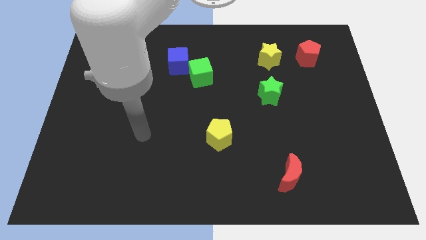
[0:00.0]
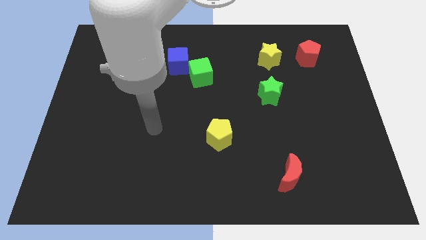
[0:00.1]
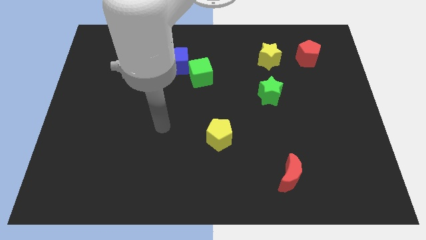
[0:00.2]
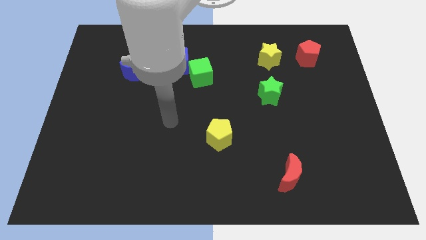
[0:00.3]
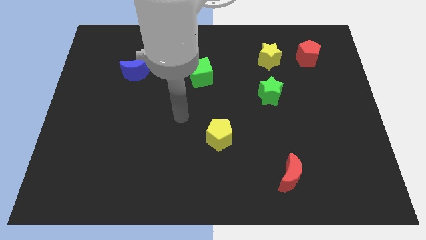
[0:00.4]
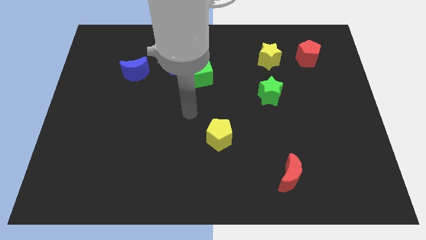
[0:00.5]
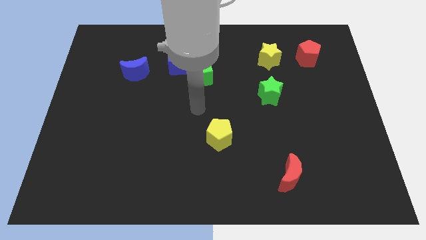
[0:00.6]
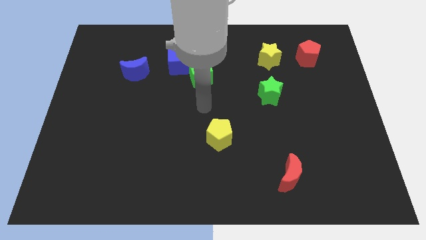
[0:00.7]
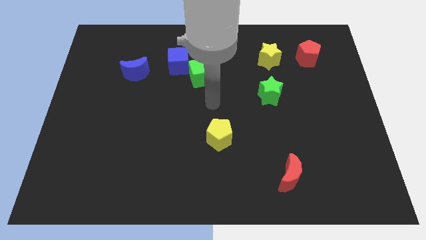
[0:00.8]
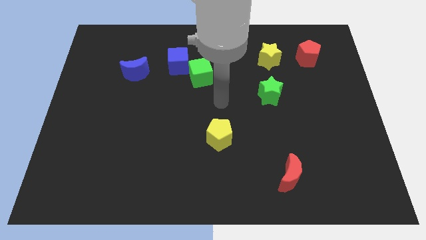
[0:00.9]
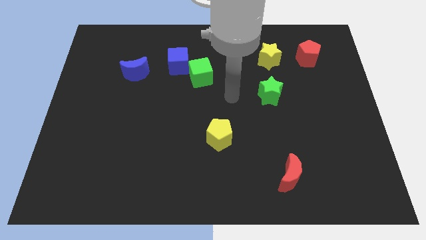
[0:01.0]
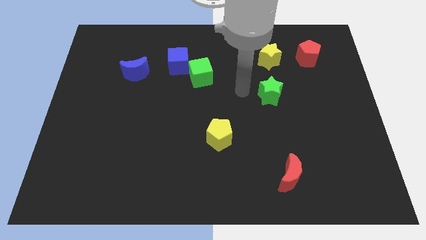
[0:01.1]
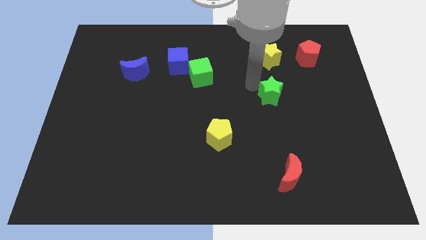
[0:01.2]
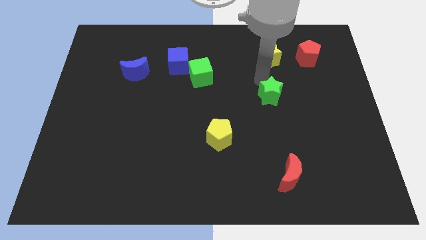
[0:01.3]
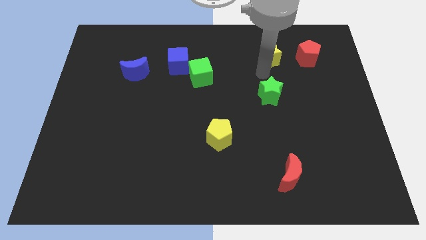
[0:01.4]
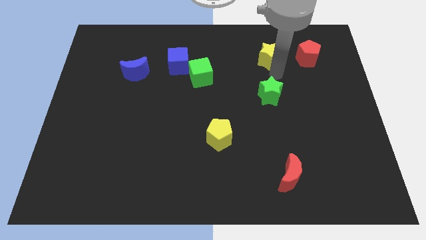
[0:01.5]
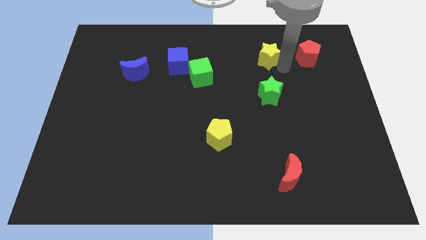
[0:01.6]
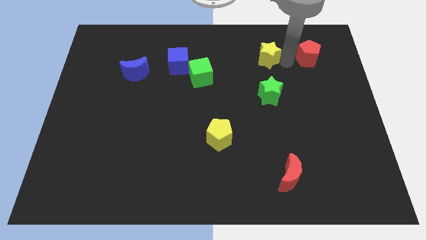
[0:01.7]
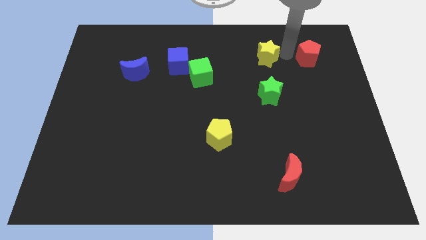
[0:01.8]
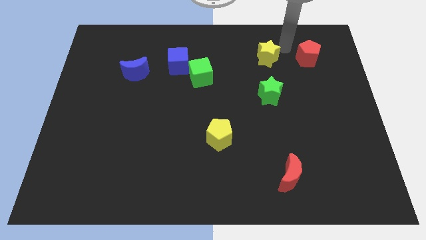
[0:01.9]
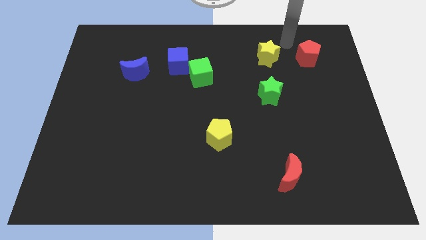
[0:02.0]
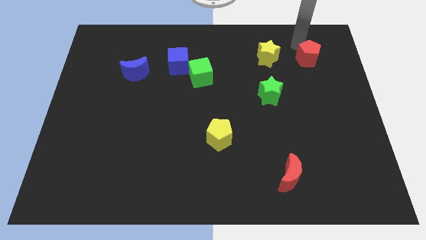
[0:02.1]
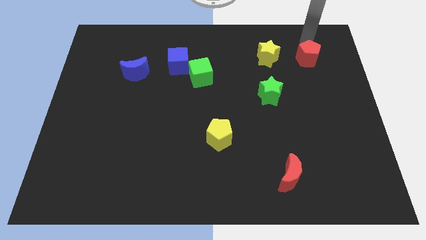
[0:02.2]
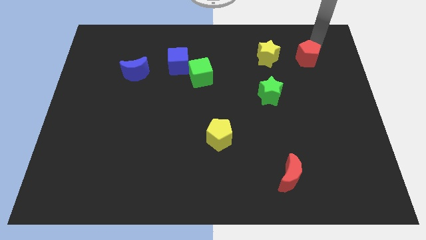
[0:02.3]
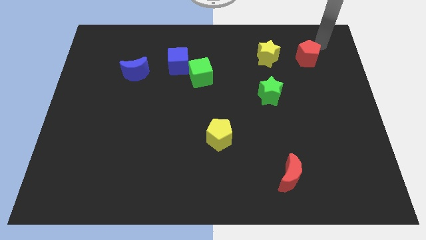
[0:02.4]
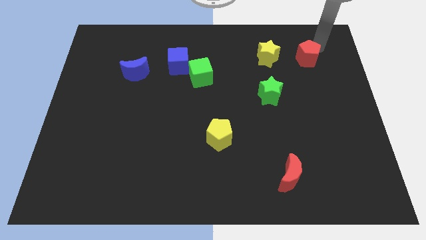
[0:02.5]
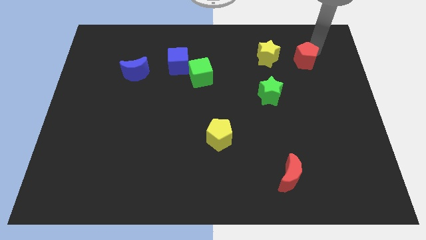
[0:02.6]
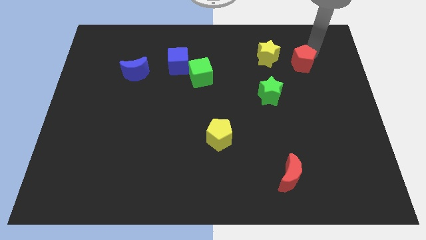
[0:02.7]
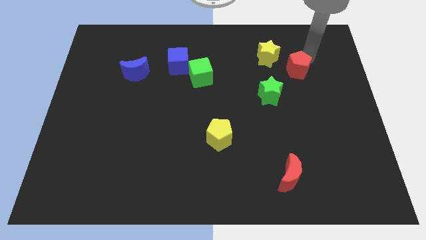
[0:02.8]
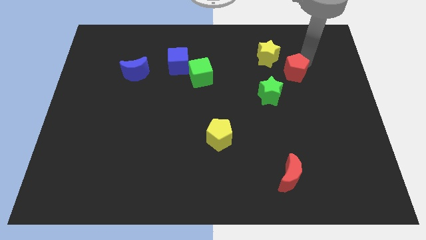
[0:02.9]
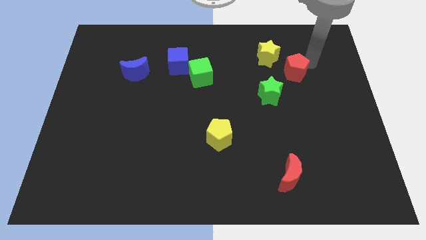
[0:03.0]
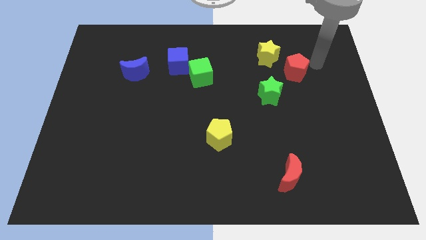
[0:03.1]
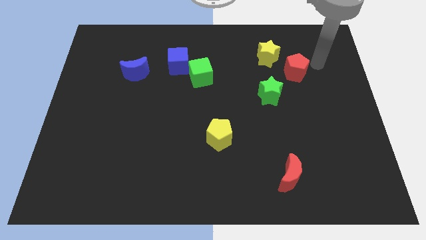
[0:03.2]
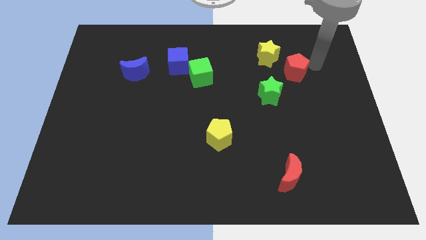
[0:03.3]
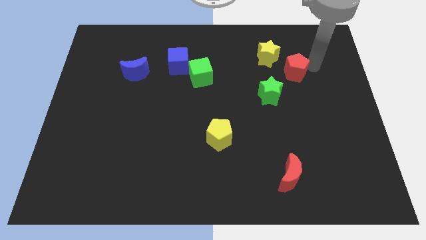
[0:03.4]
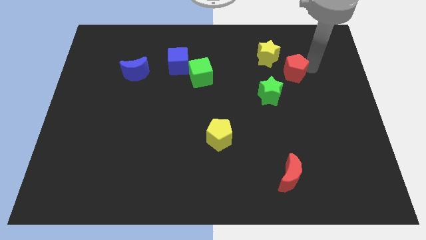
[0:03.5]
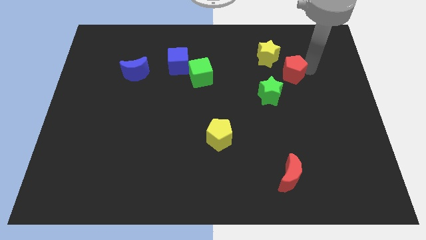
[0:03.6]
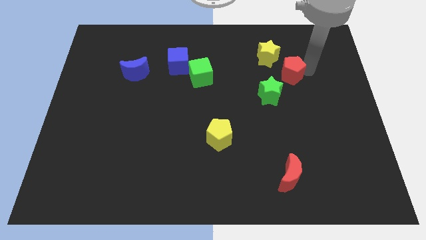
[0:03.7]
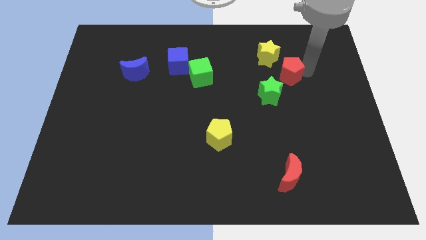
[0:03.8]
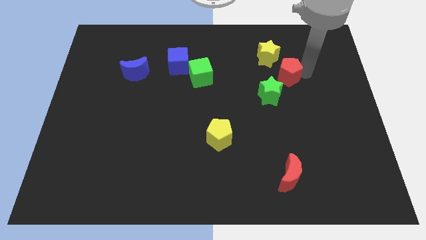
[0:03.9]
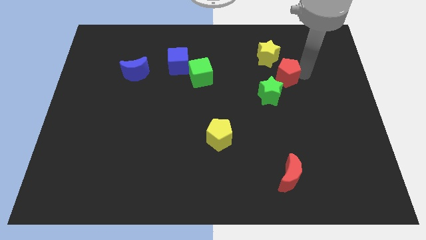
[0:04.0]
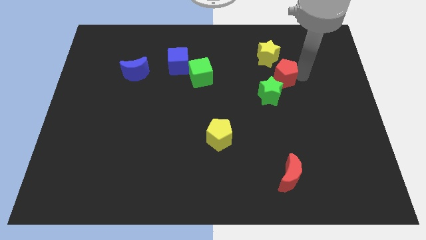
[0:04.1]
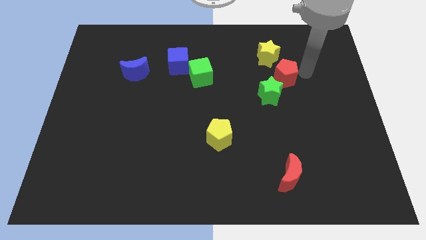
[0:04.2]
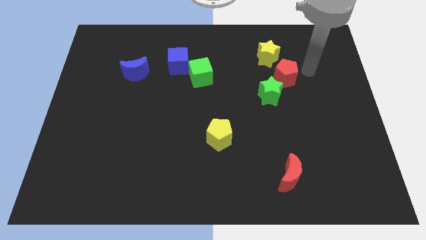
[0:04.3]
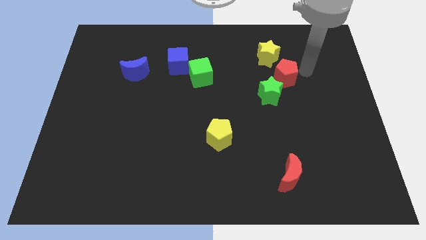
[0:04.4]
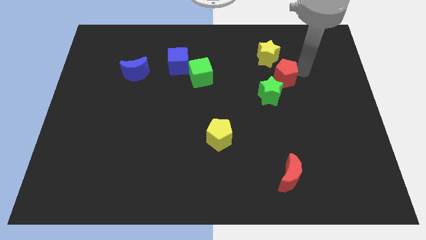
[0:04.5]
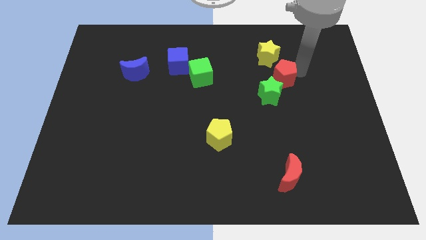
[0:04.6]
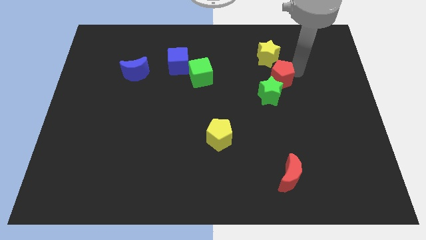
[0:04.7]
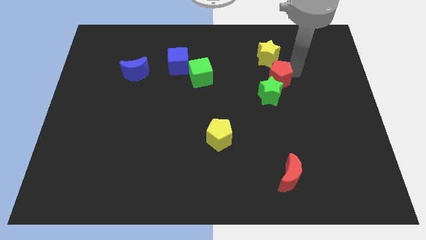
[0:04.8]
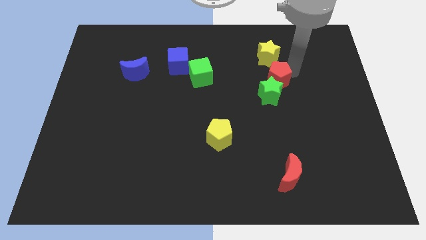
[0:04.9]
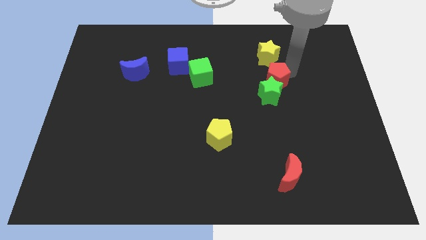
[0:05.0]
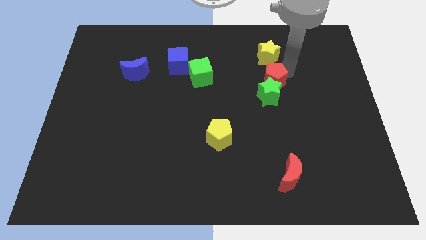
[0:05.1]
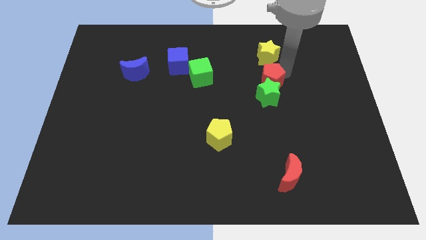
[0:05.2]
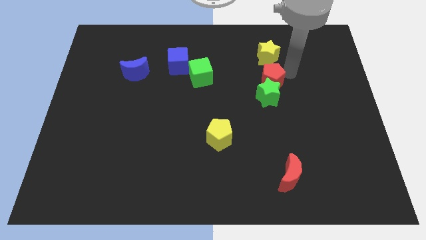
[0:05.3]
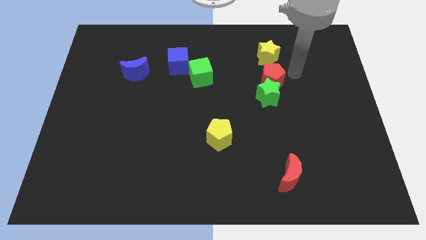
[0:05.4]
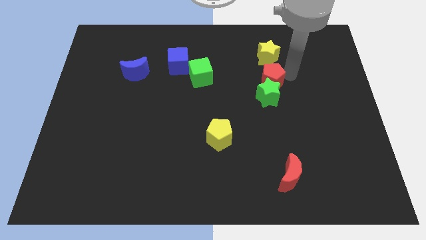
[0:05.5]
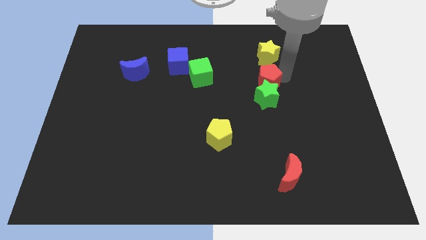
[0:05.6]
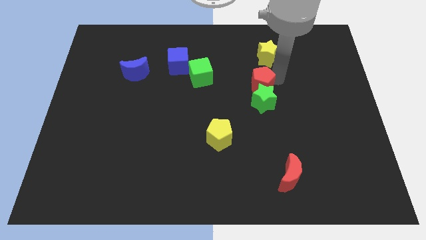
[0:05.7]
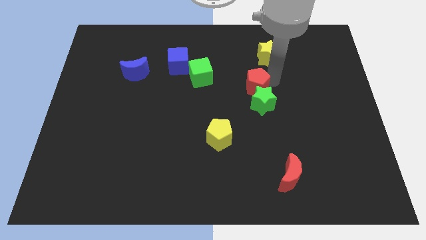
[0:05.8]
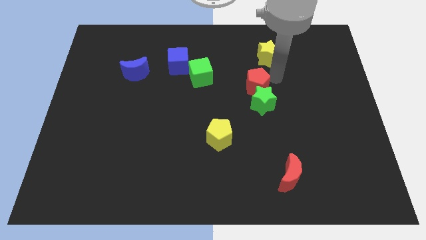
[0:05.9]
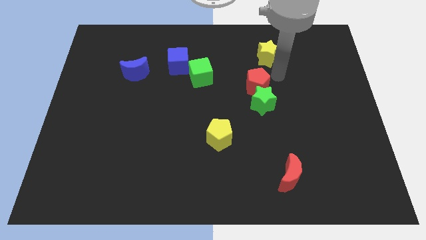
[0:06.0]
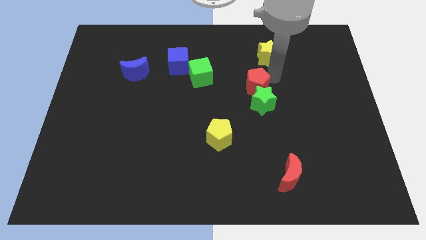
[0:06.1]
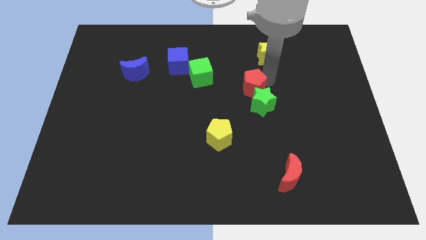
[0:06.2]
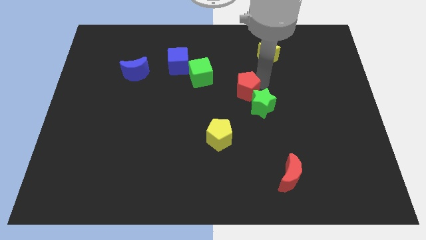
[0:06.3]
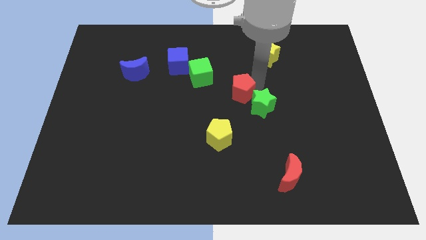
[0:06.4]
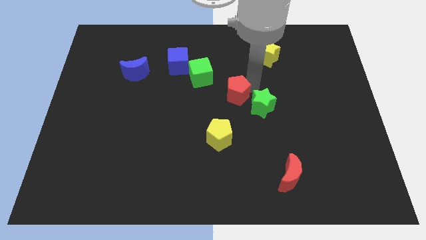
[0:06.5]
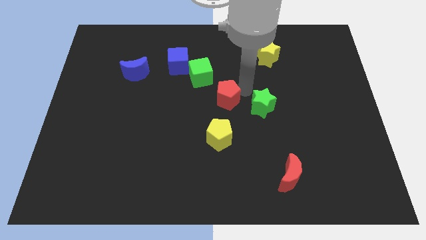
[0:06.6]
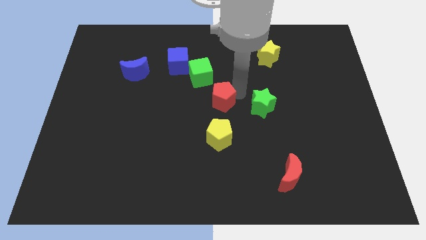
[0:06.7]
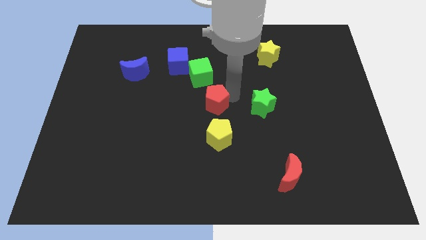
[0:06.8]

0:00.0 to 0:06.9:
slide the red pentagon below the green cube
